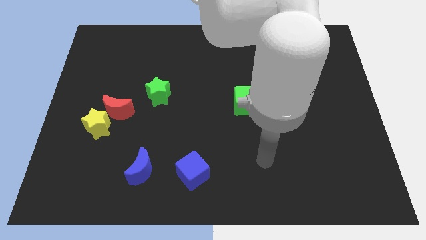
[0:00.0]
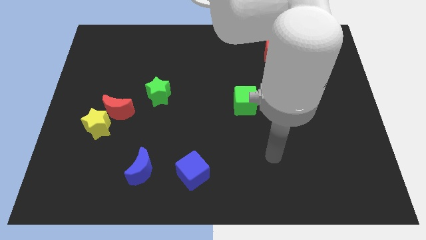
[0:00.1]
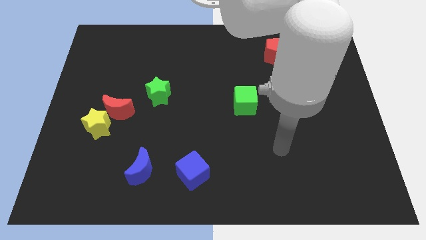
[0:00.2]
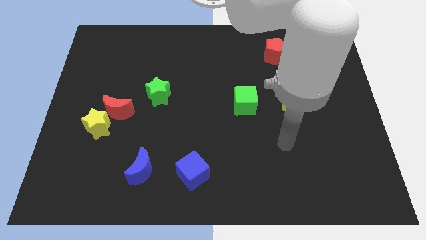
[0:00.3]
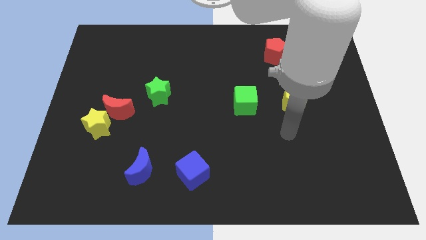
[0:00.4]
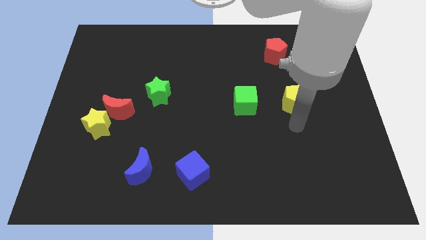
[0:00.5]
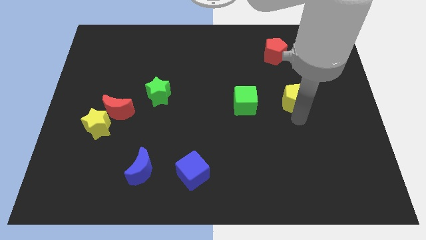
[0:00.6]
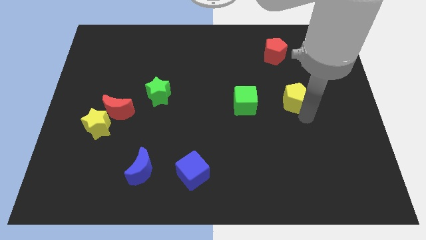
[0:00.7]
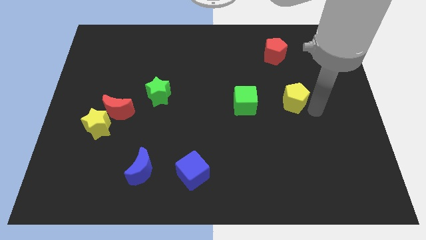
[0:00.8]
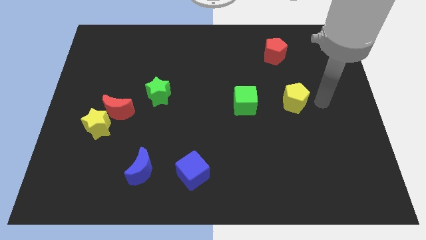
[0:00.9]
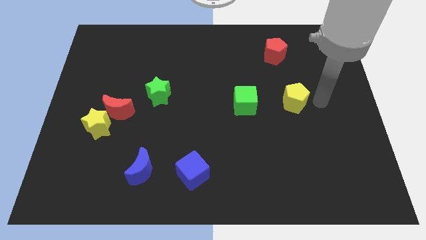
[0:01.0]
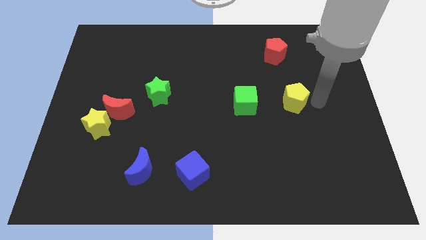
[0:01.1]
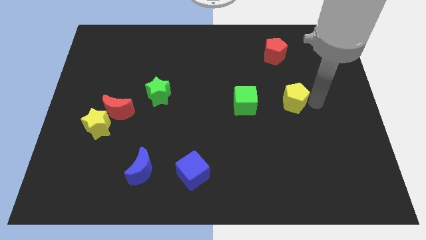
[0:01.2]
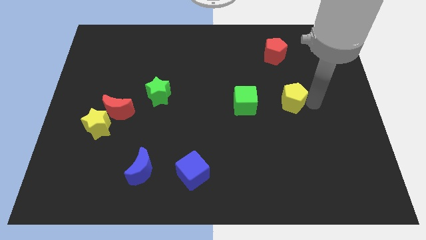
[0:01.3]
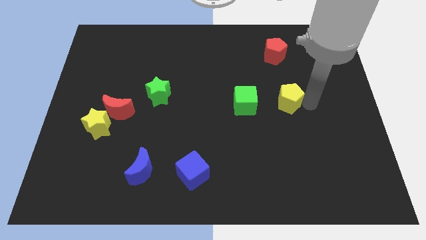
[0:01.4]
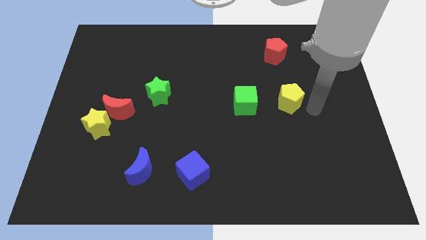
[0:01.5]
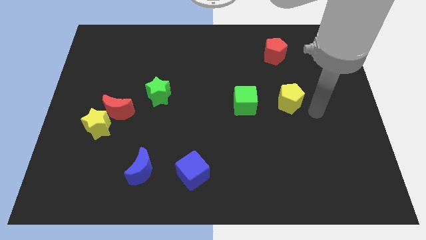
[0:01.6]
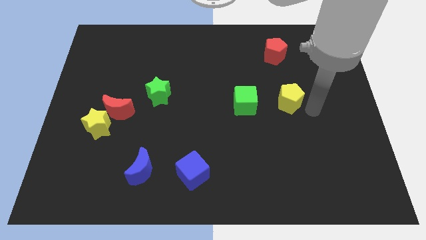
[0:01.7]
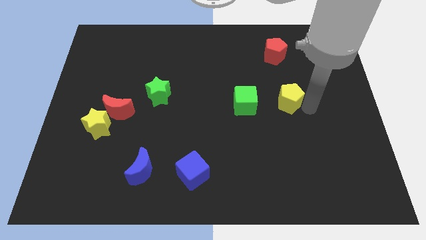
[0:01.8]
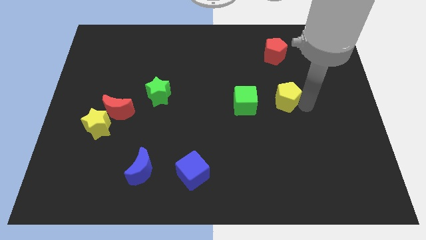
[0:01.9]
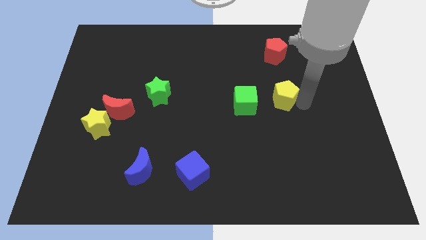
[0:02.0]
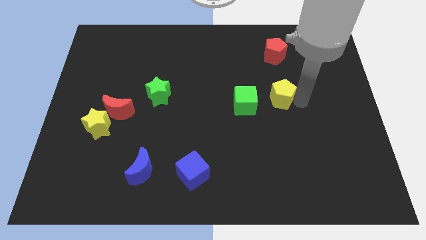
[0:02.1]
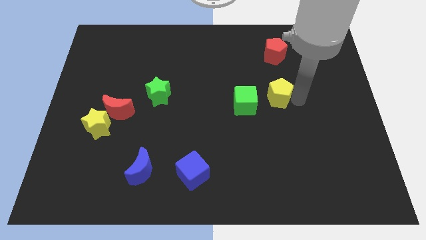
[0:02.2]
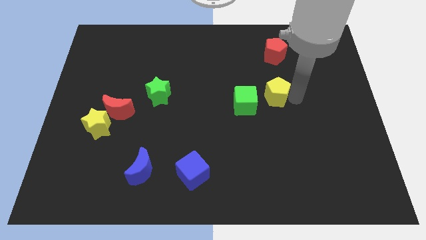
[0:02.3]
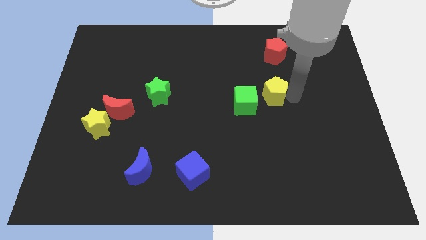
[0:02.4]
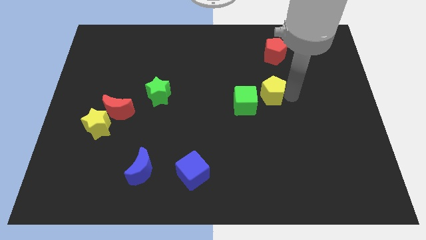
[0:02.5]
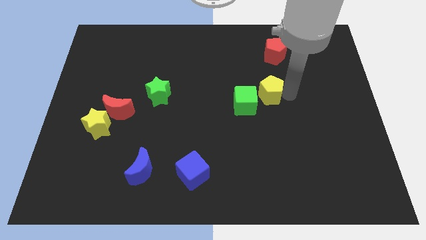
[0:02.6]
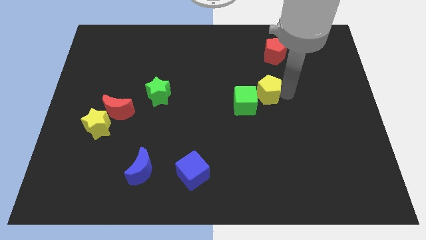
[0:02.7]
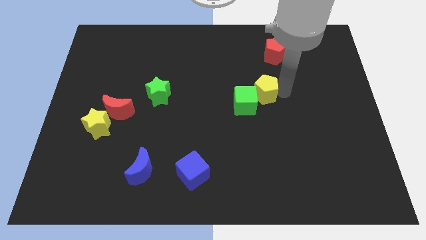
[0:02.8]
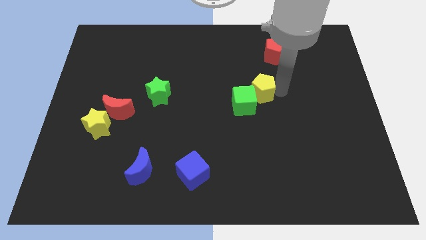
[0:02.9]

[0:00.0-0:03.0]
slightly move the yellow pentagon left

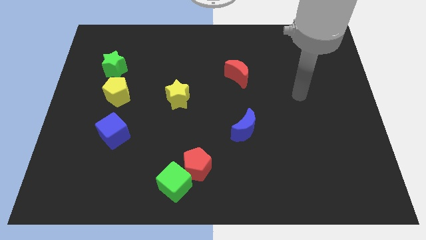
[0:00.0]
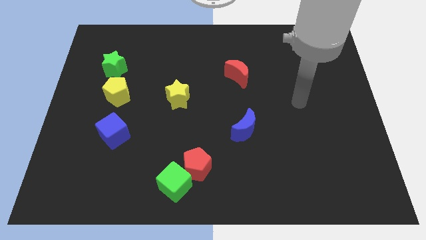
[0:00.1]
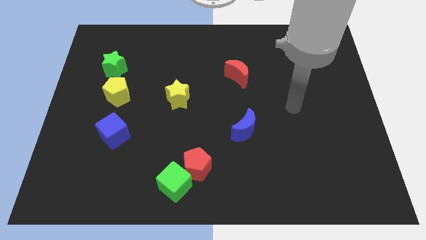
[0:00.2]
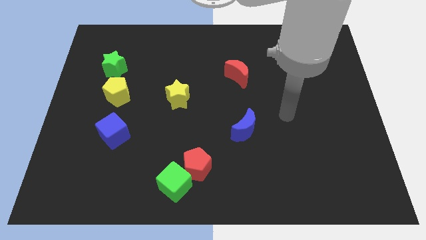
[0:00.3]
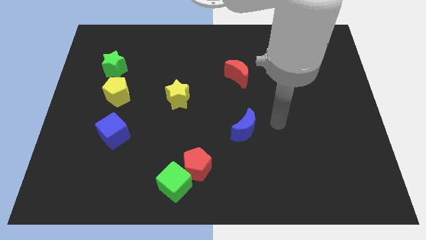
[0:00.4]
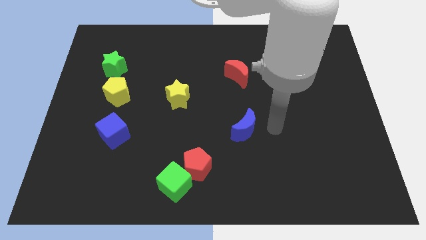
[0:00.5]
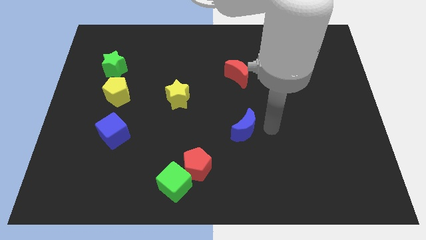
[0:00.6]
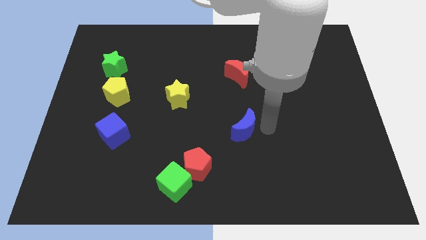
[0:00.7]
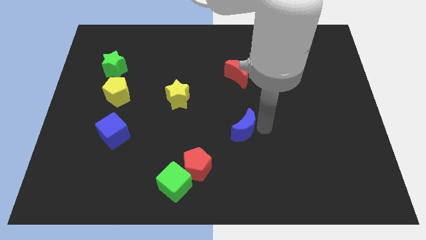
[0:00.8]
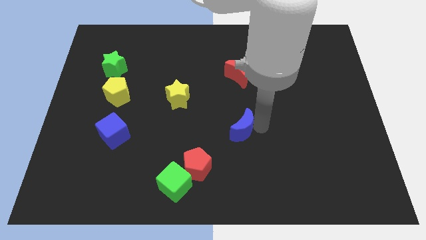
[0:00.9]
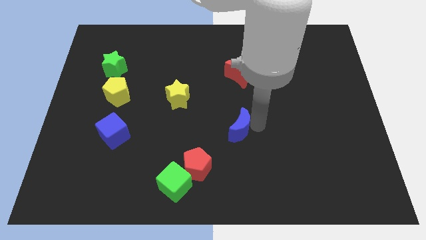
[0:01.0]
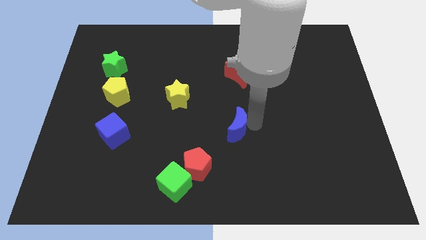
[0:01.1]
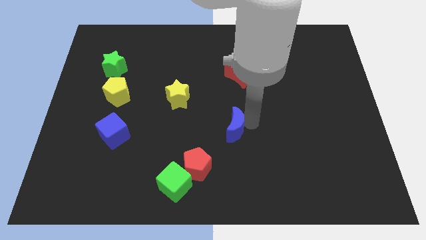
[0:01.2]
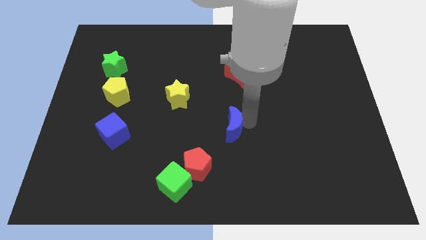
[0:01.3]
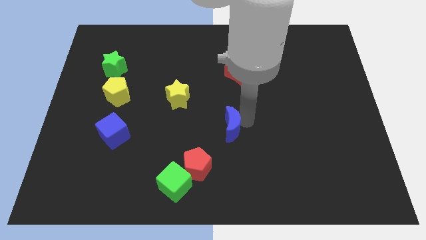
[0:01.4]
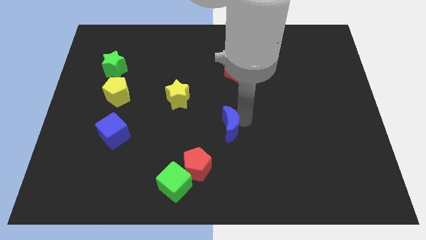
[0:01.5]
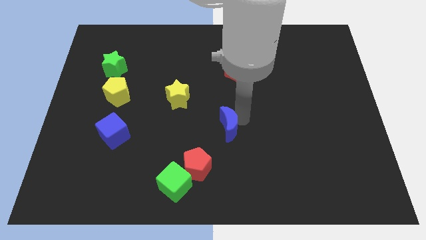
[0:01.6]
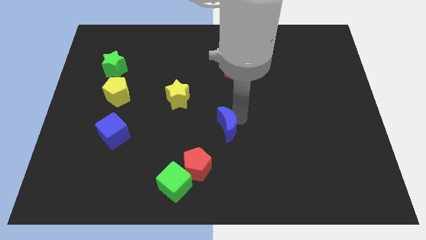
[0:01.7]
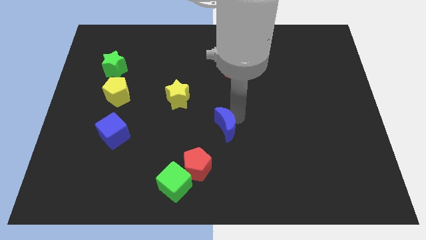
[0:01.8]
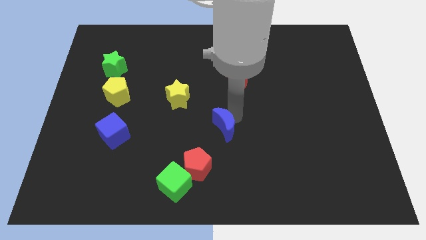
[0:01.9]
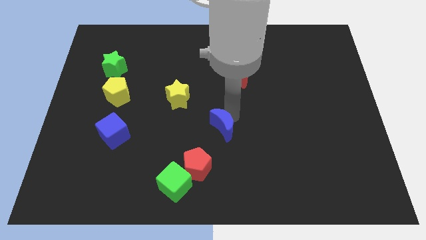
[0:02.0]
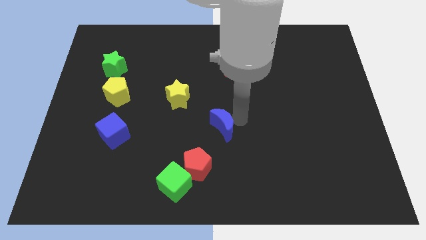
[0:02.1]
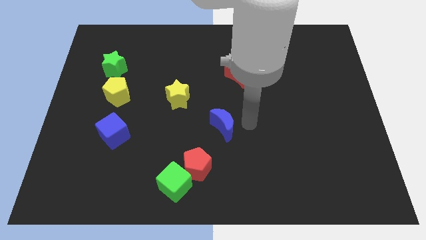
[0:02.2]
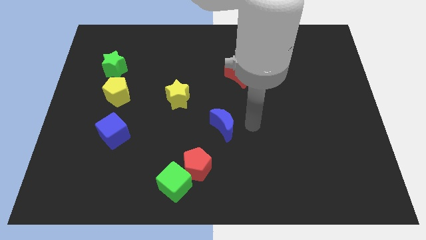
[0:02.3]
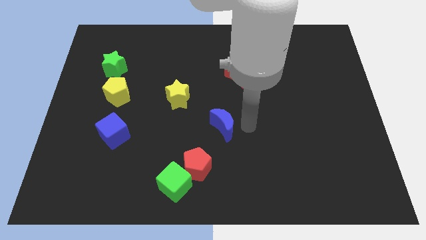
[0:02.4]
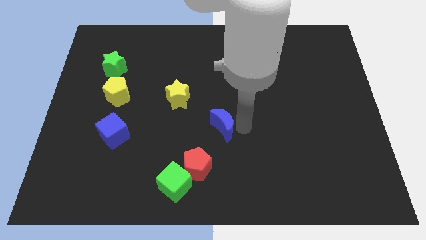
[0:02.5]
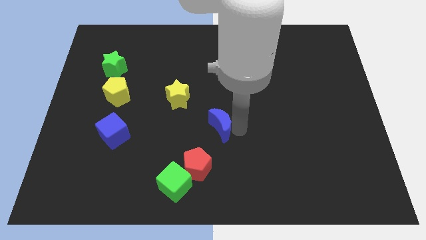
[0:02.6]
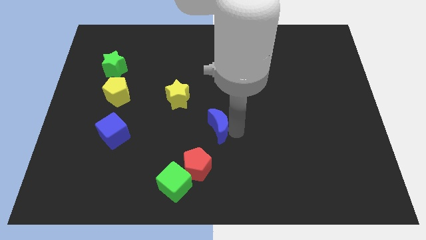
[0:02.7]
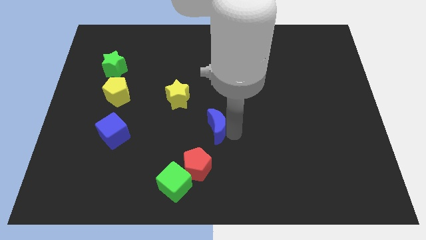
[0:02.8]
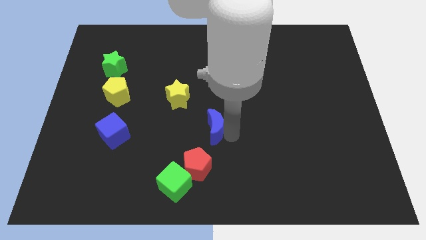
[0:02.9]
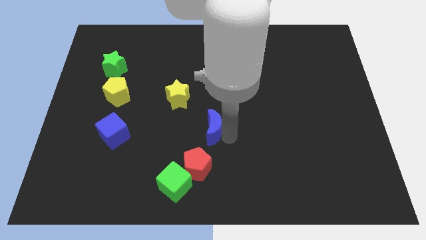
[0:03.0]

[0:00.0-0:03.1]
slightly slide the blue moon to the left

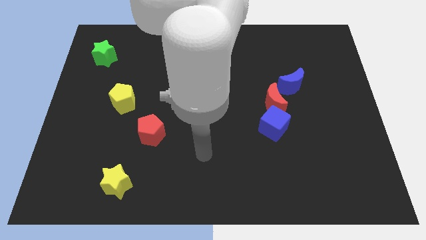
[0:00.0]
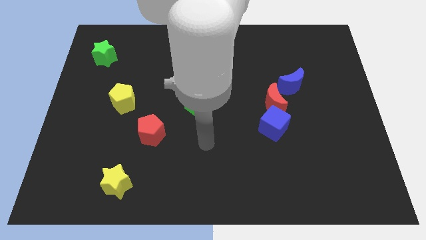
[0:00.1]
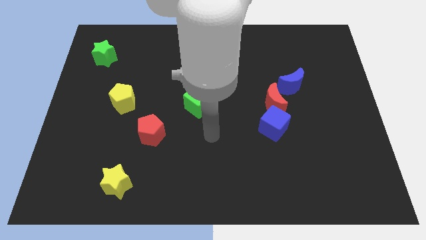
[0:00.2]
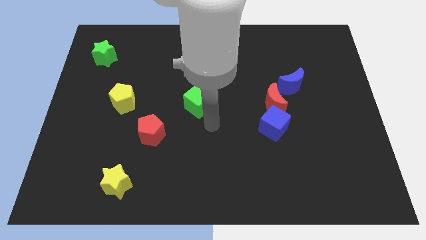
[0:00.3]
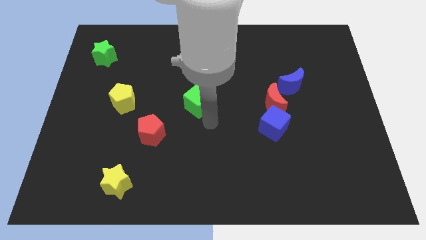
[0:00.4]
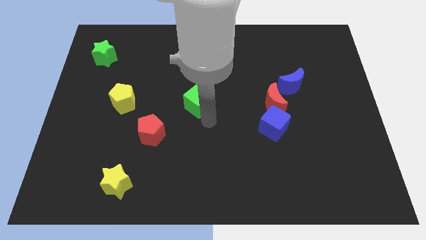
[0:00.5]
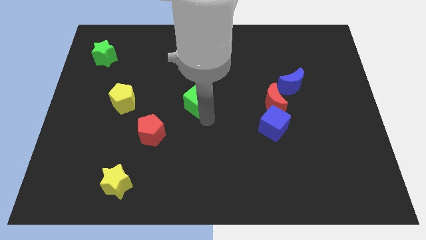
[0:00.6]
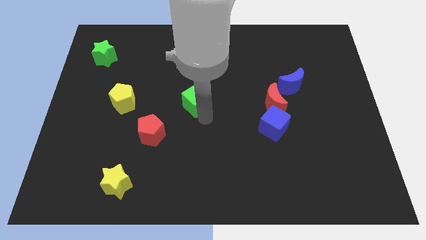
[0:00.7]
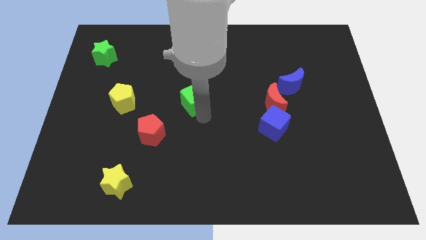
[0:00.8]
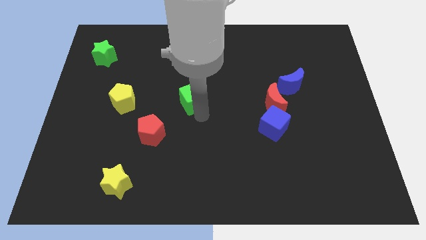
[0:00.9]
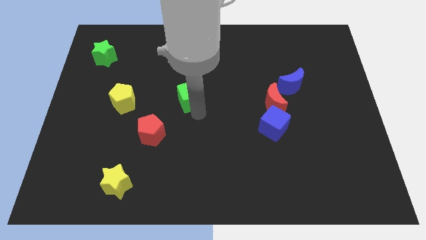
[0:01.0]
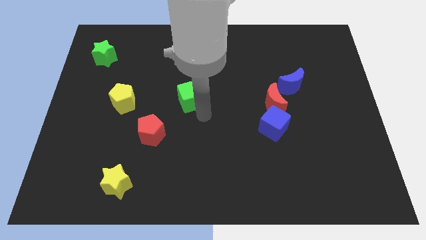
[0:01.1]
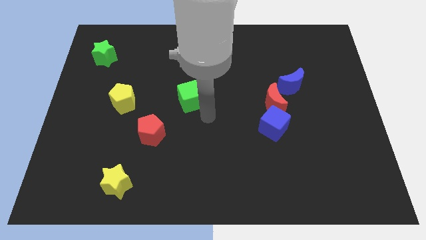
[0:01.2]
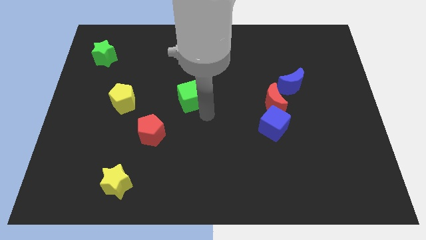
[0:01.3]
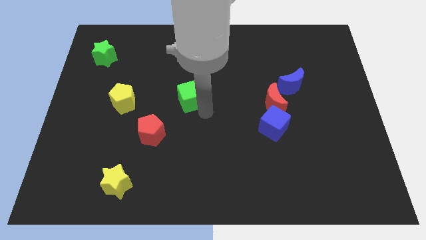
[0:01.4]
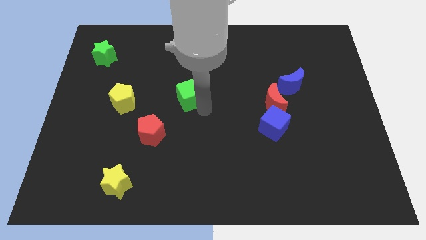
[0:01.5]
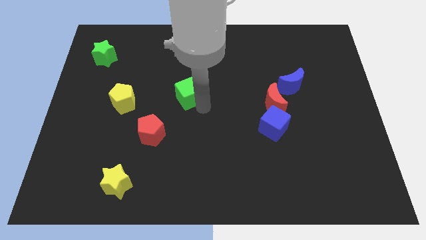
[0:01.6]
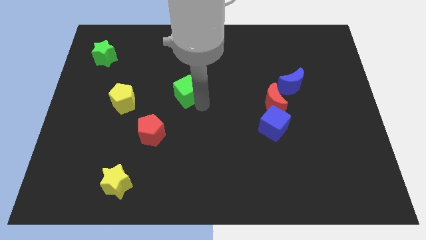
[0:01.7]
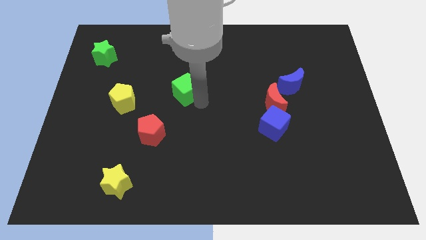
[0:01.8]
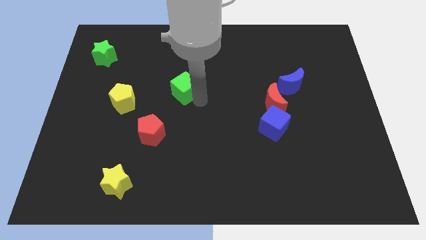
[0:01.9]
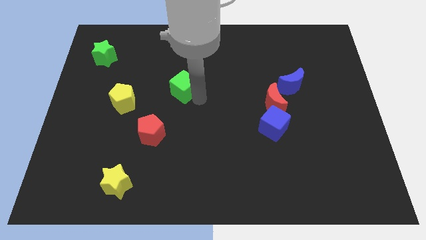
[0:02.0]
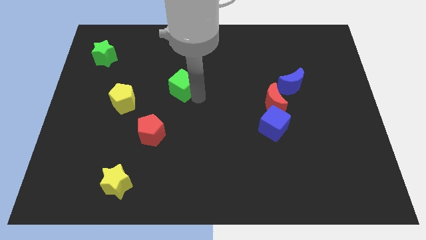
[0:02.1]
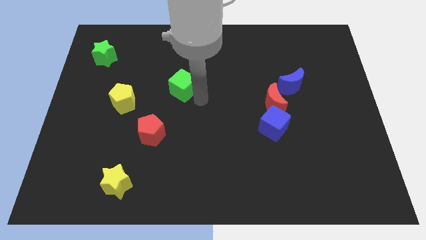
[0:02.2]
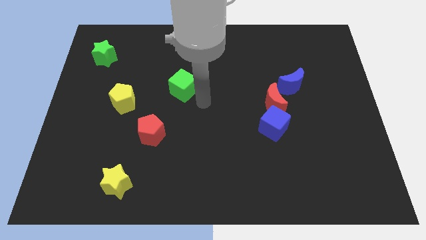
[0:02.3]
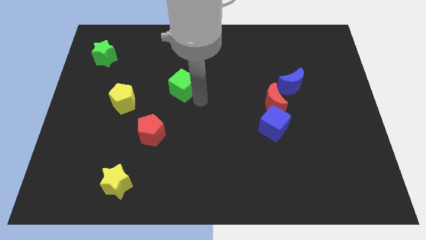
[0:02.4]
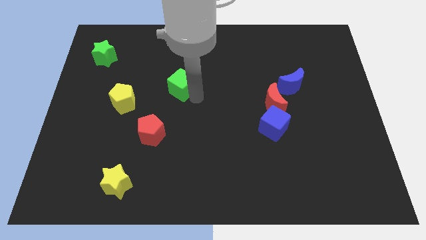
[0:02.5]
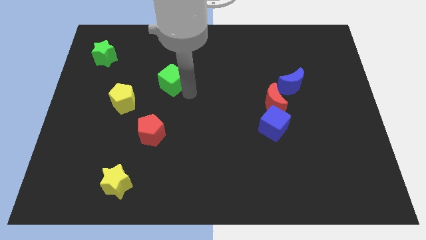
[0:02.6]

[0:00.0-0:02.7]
slide the green cube upwards and left slightly
